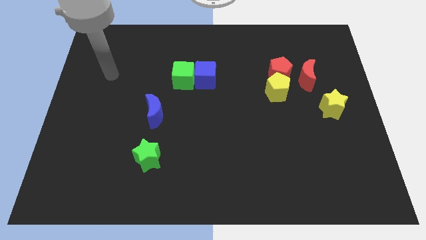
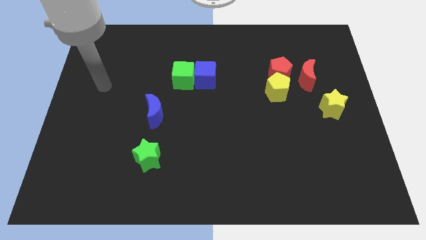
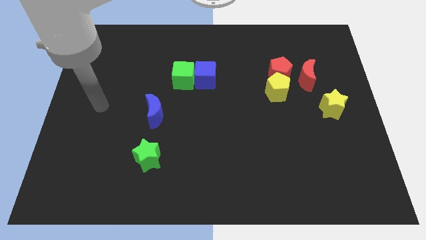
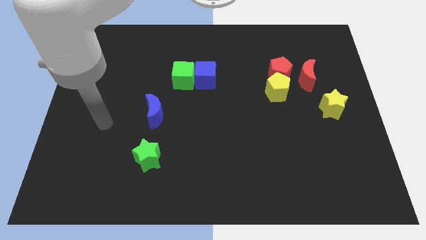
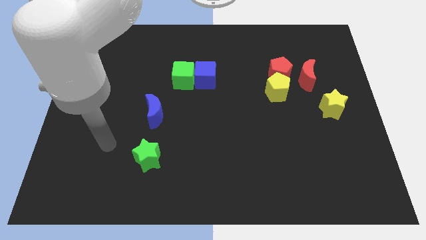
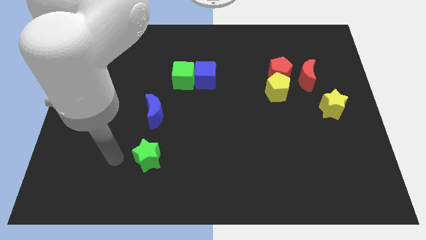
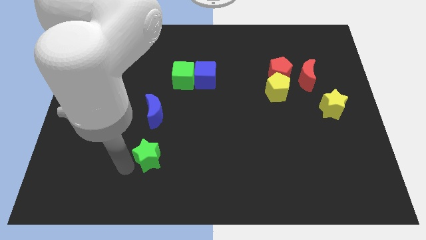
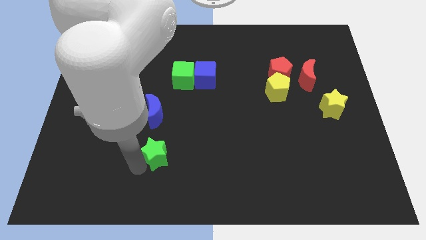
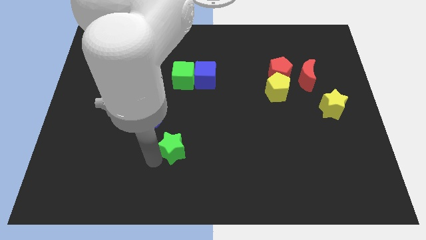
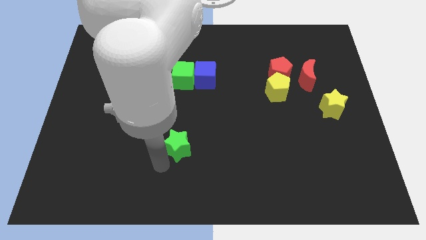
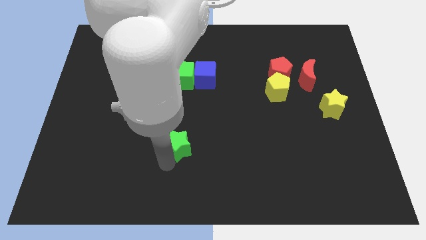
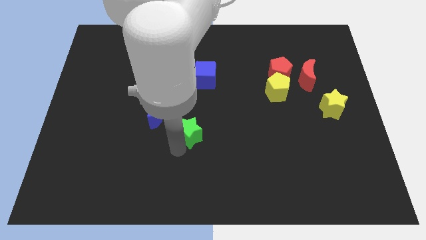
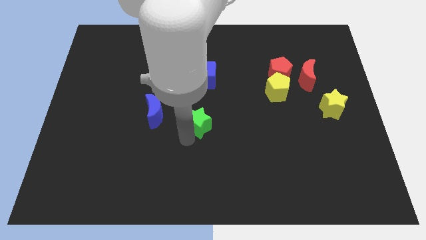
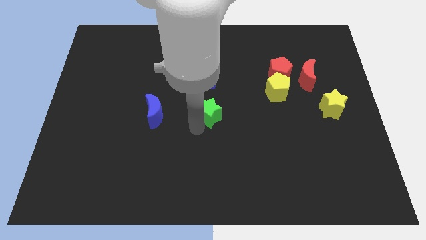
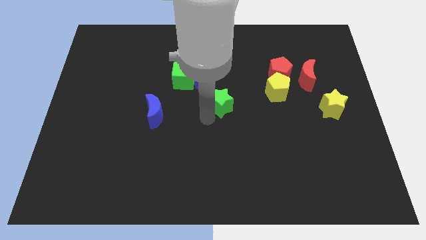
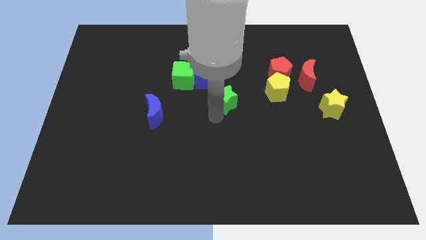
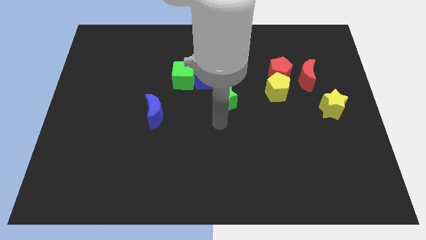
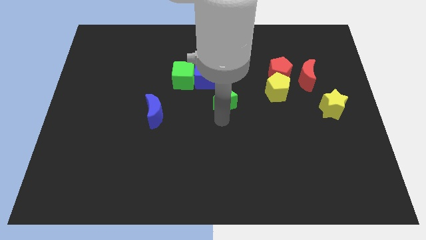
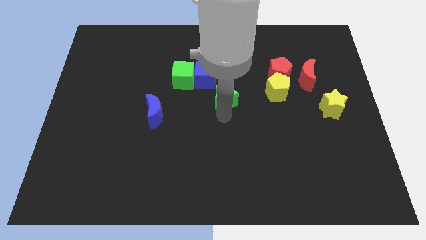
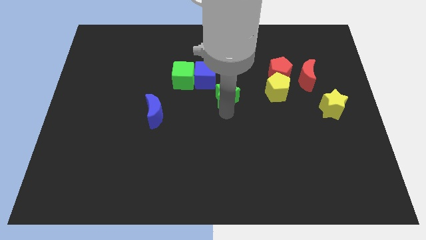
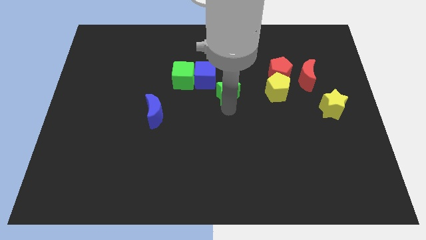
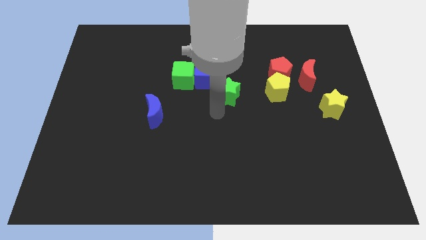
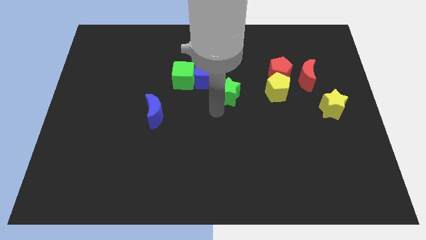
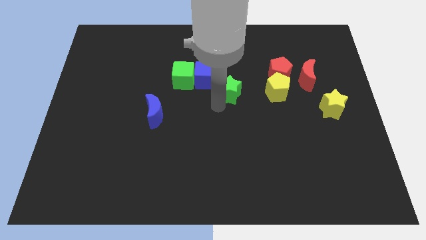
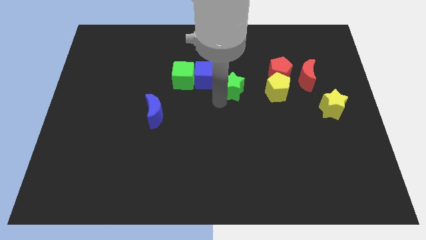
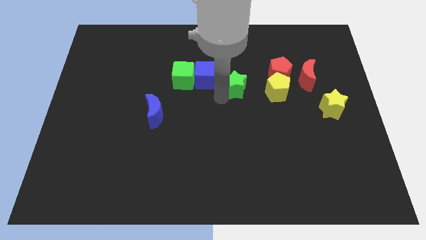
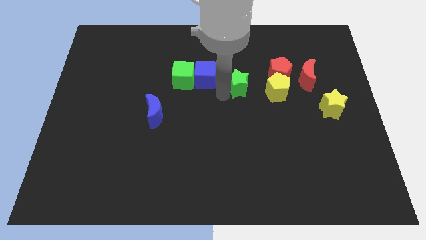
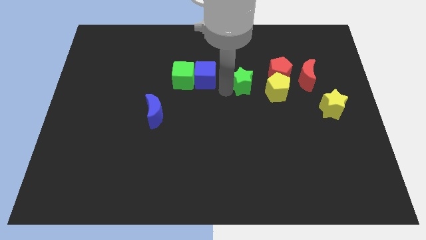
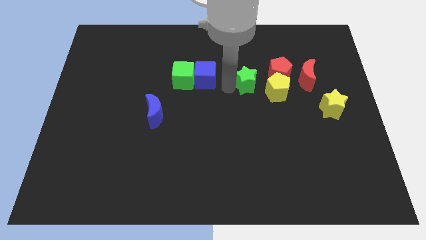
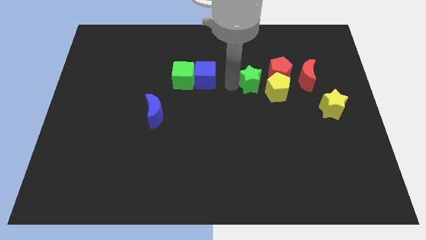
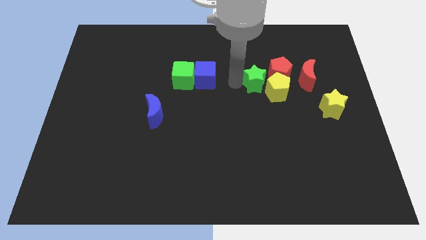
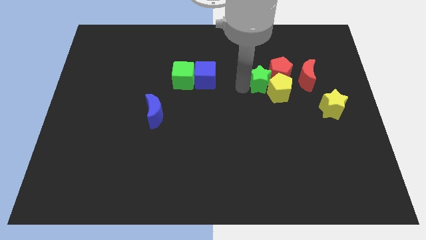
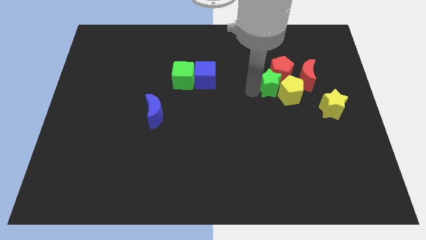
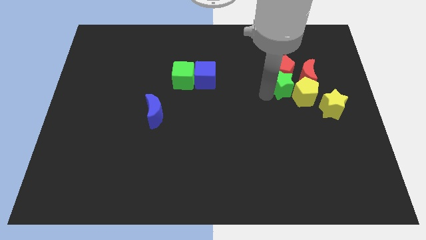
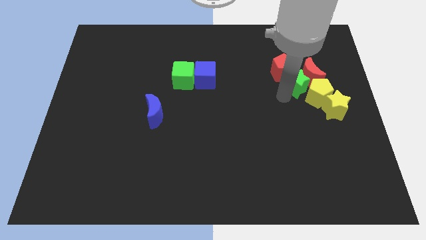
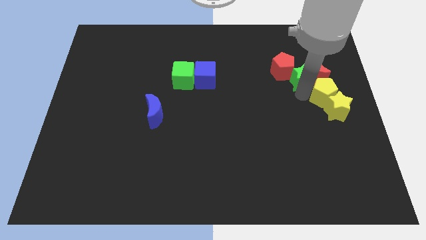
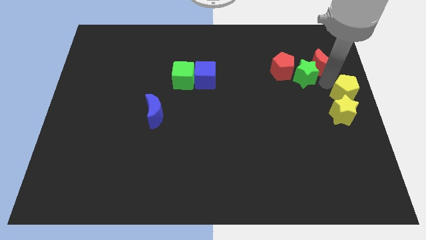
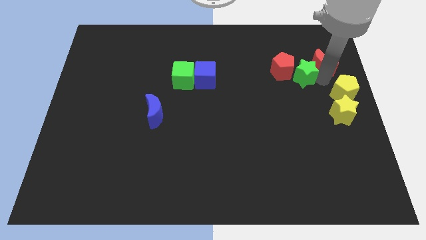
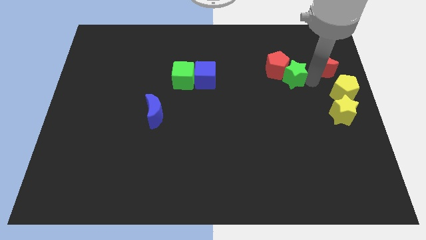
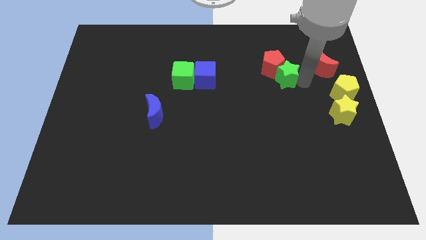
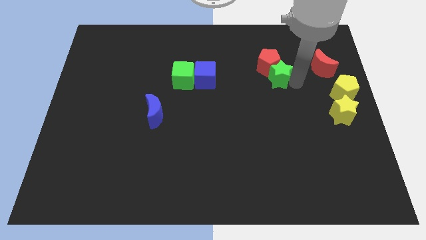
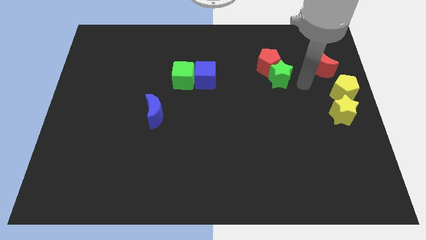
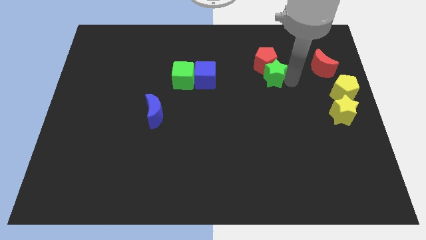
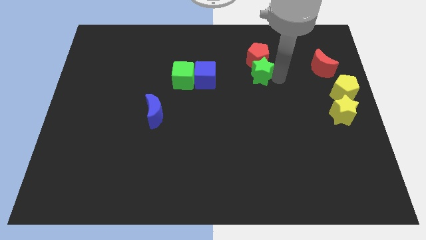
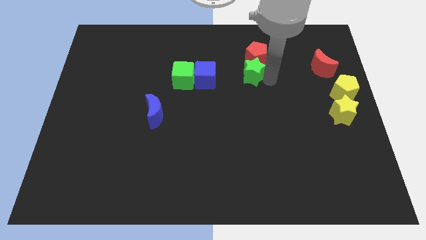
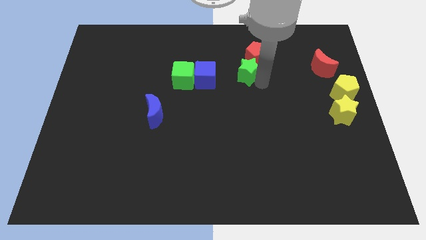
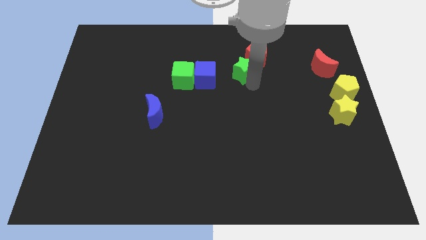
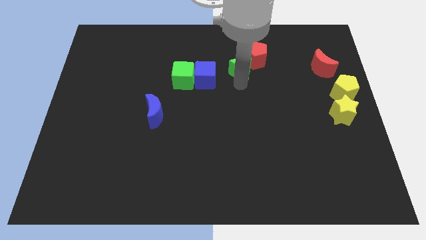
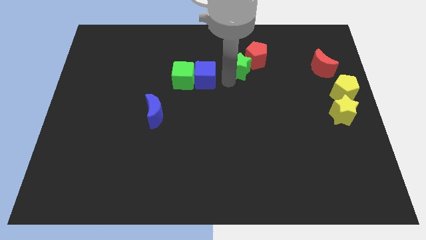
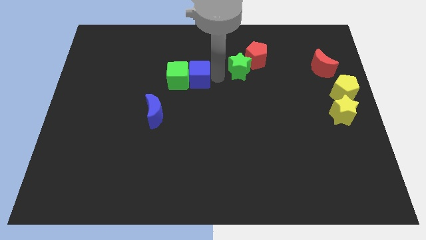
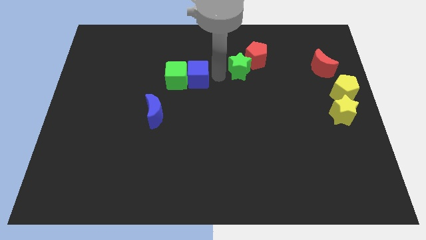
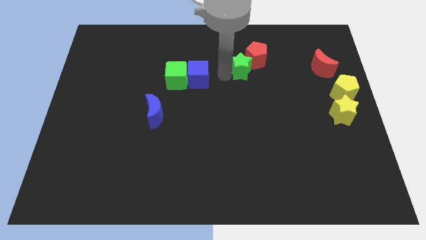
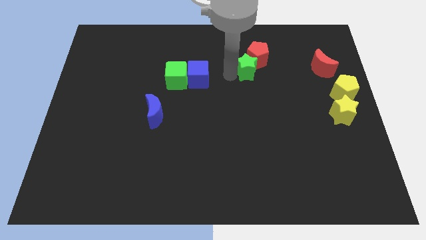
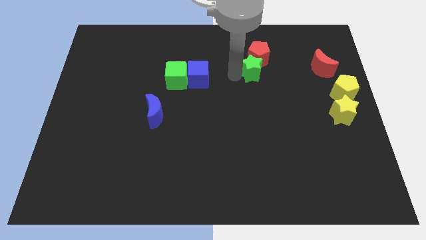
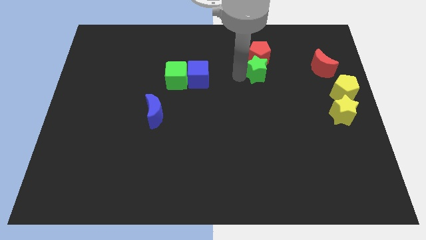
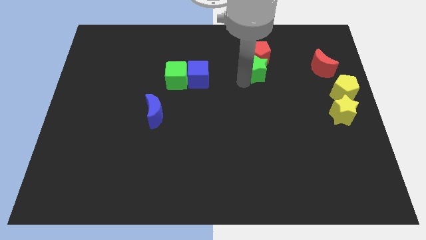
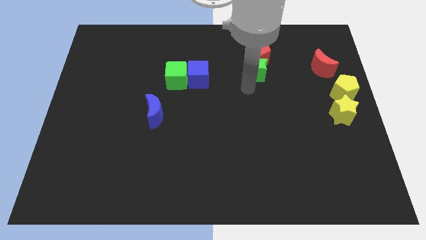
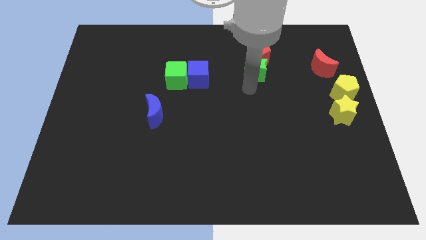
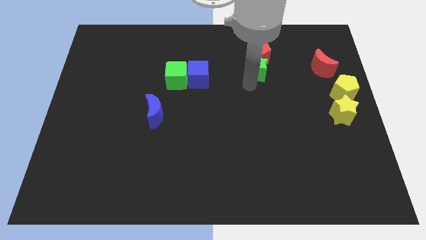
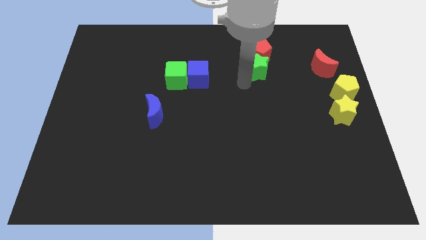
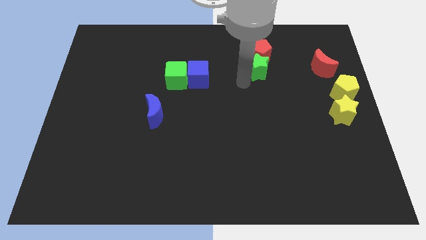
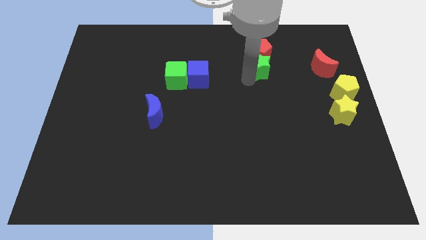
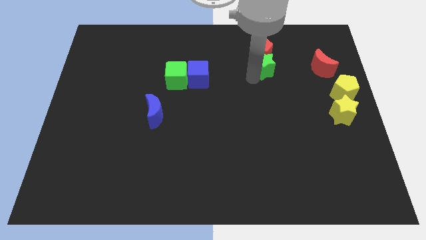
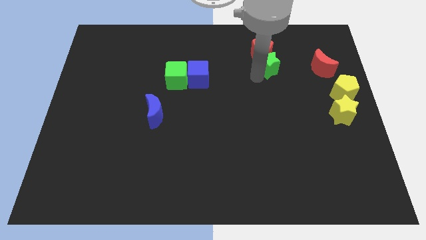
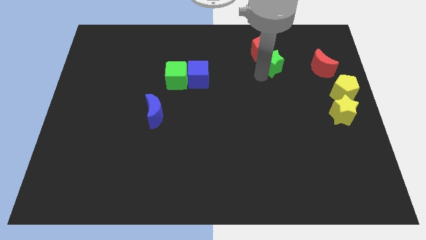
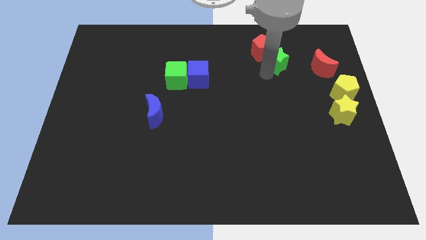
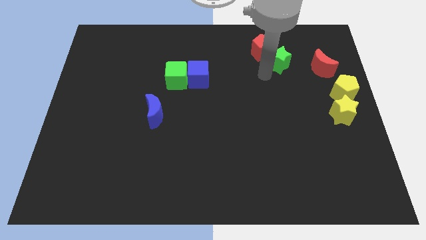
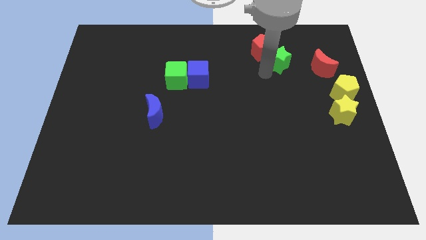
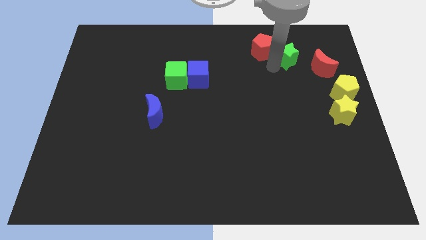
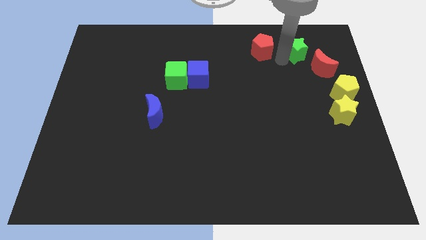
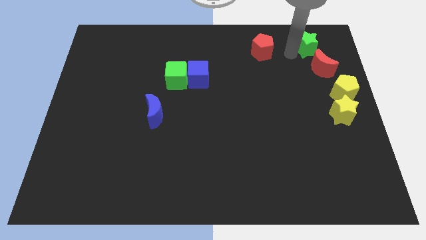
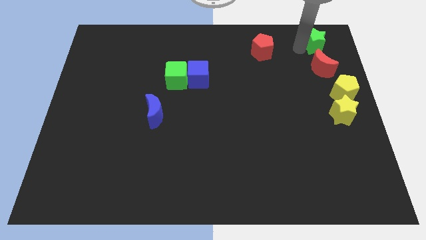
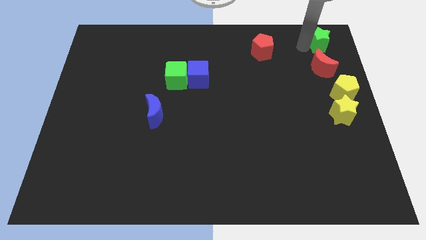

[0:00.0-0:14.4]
slide the green star to the top right of the board
